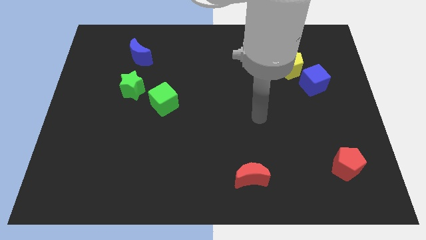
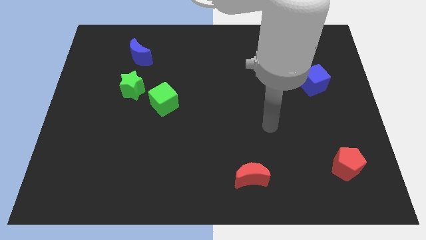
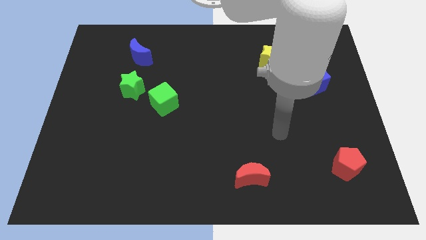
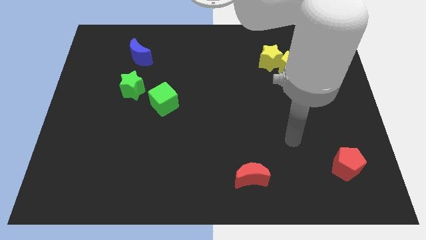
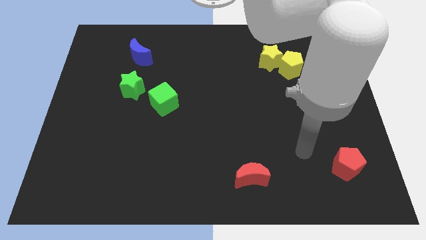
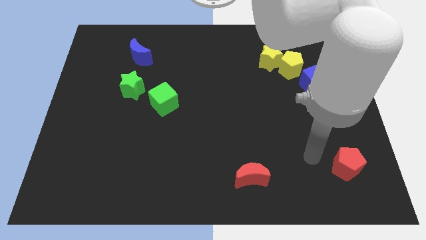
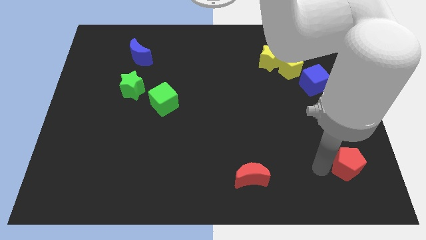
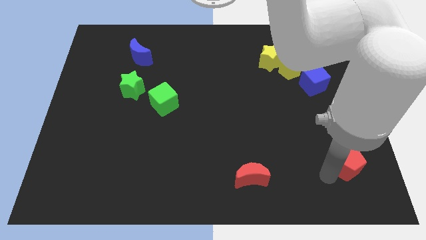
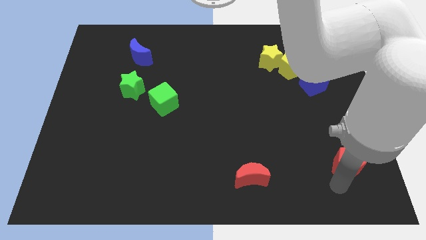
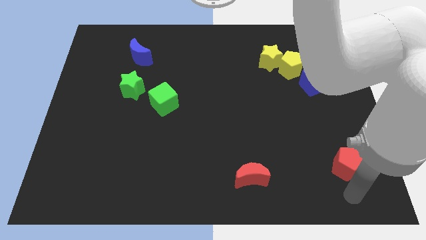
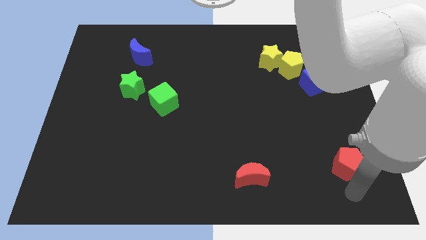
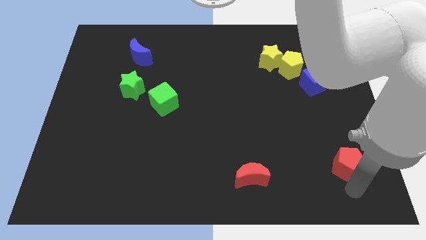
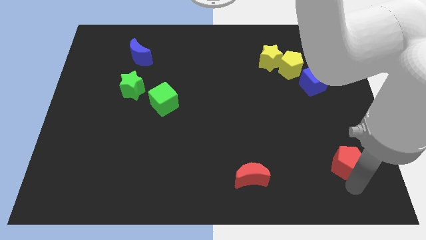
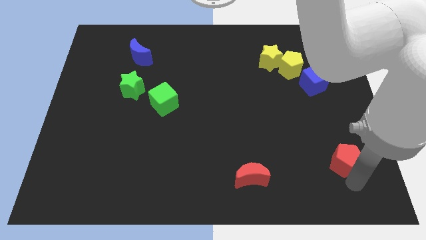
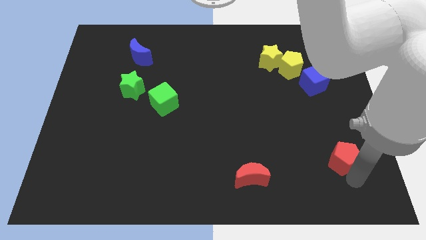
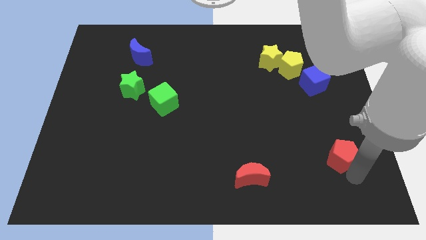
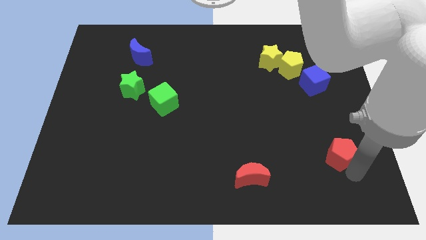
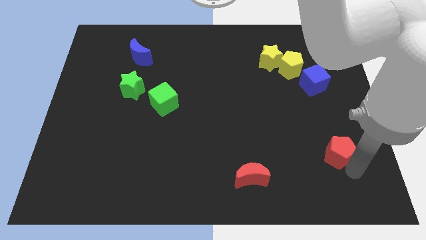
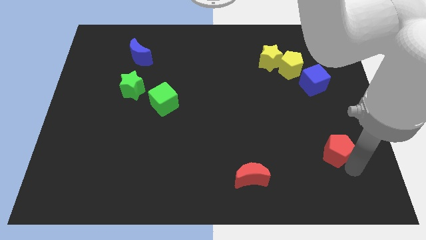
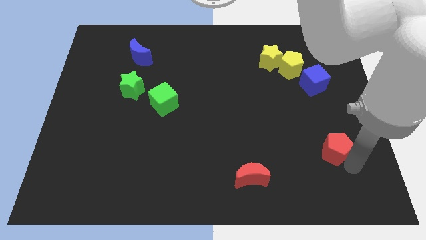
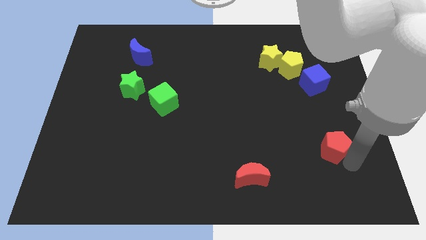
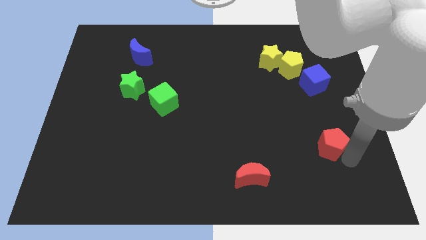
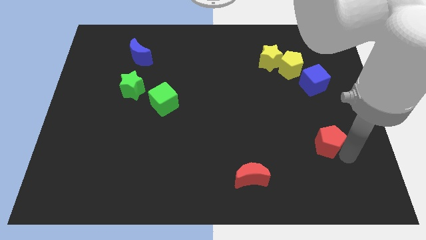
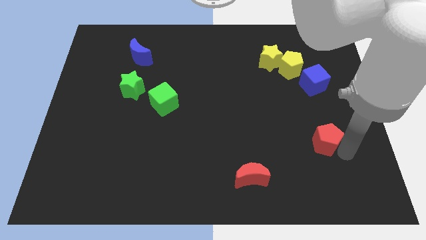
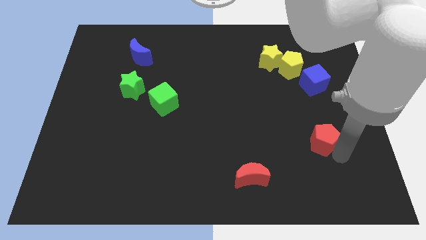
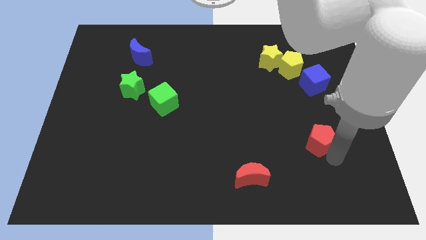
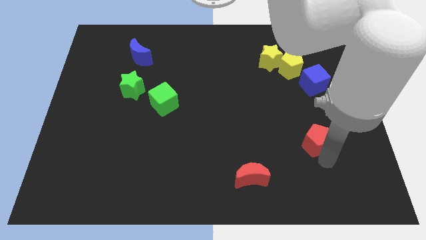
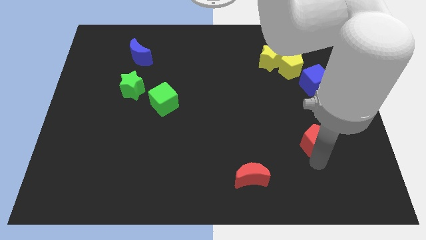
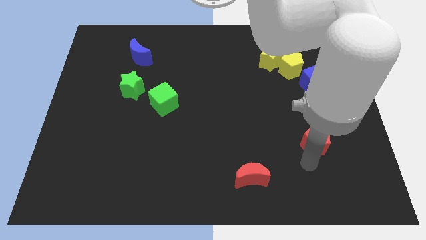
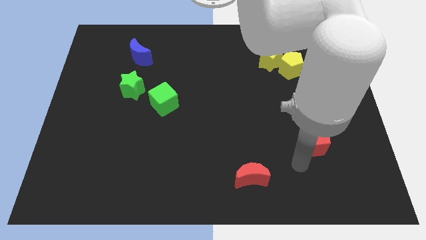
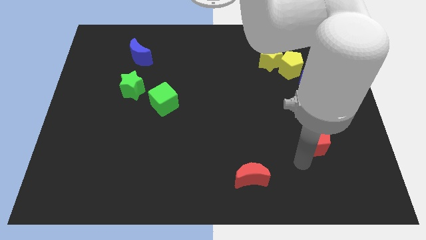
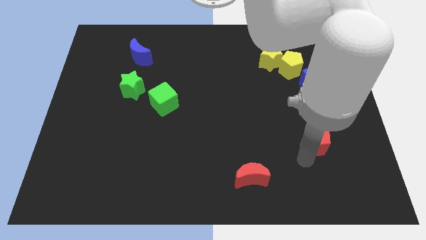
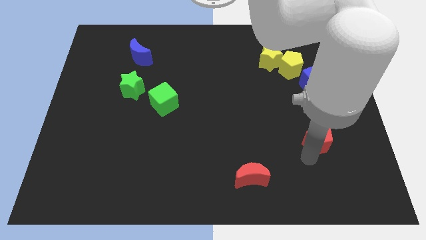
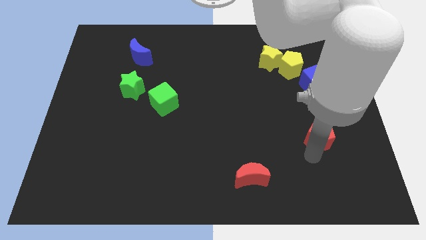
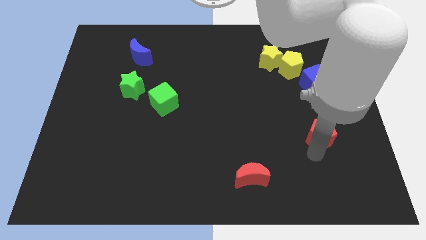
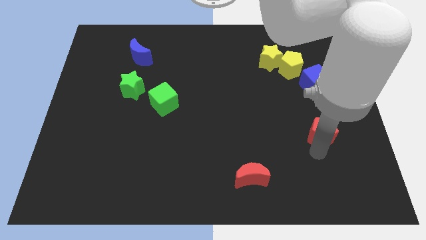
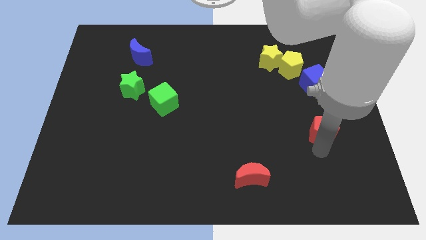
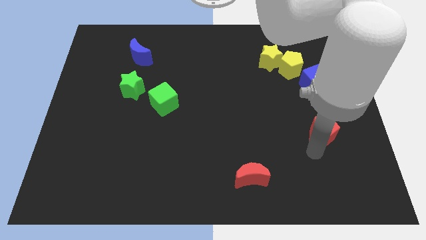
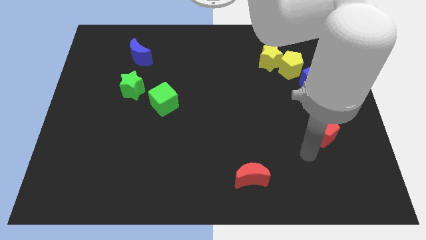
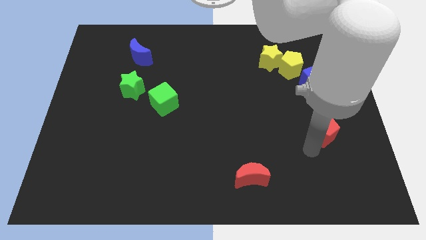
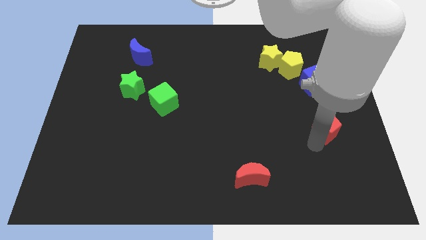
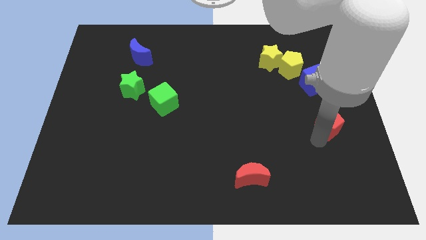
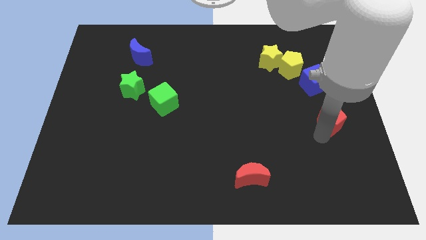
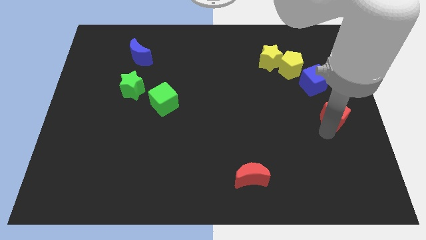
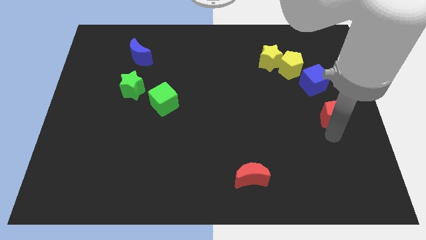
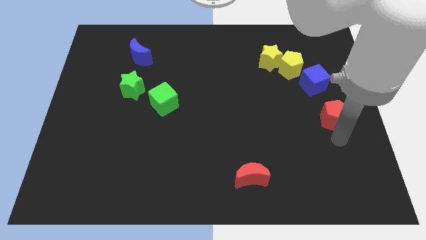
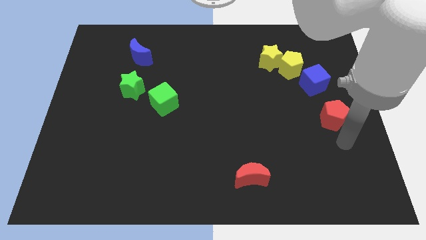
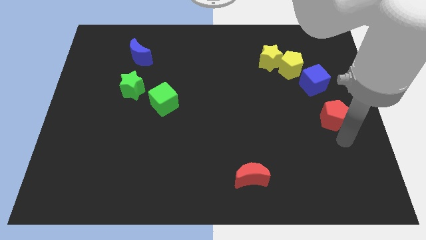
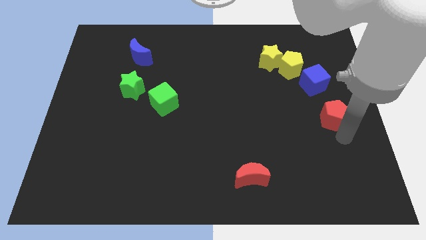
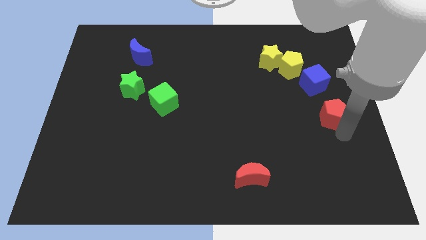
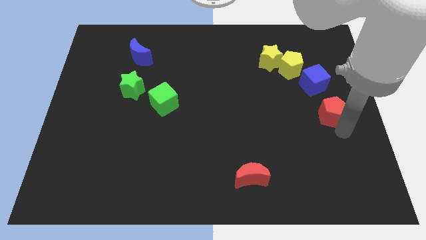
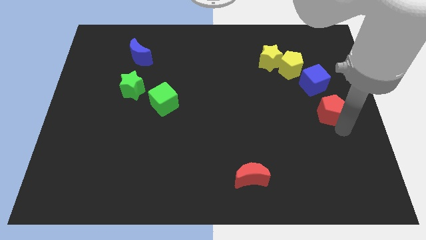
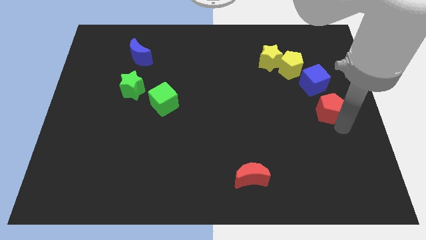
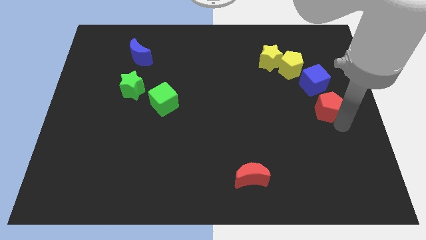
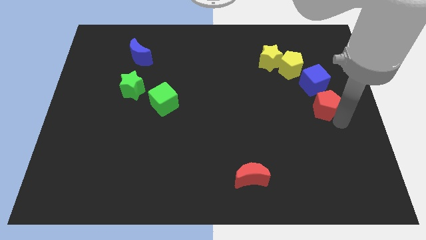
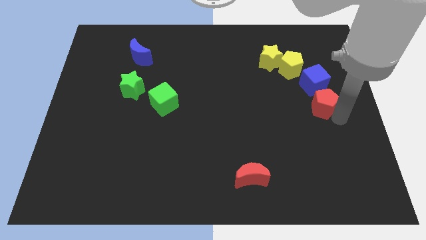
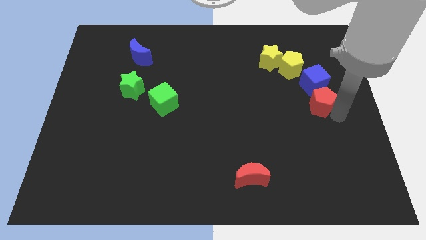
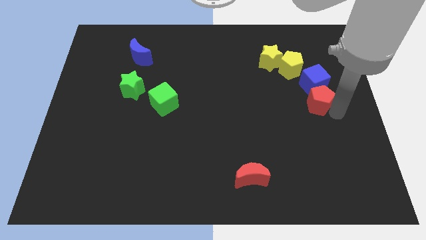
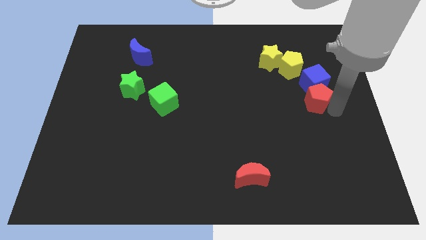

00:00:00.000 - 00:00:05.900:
slide the red pentagon towards the blue cube

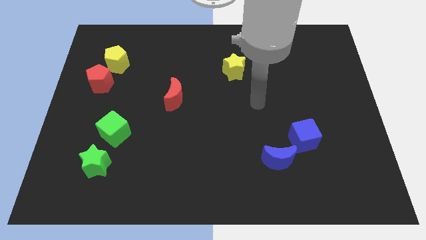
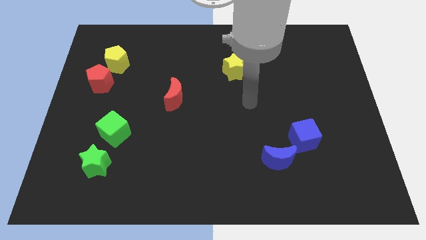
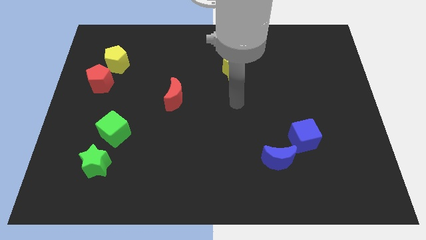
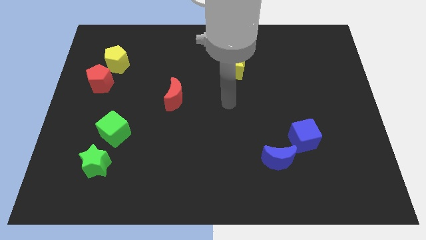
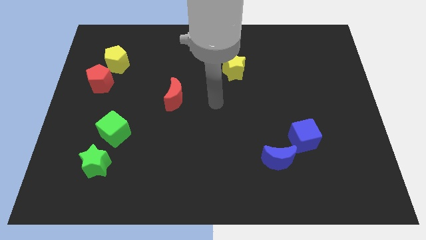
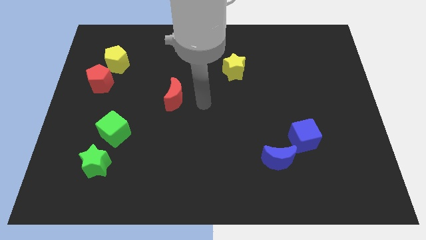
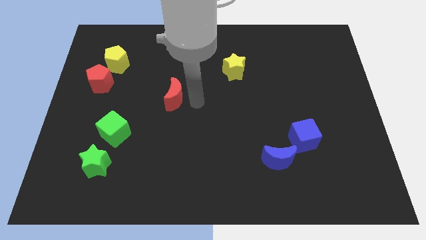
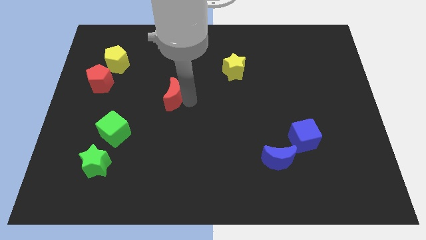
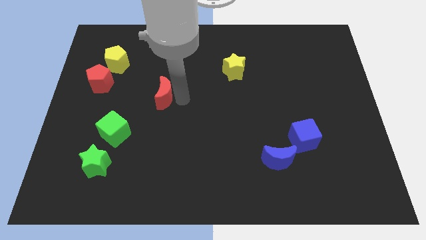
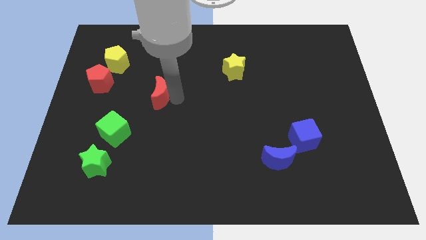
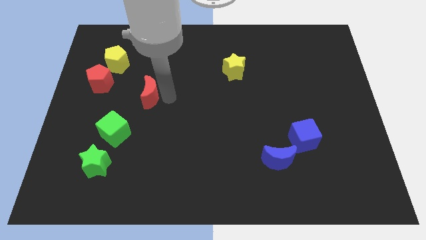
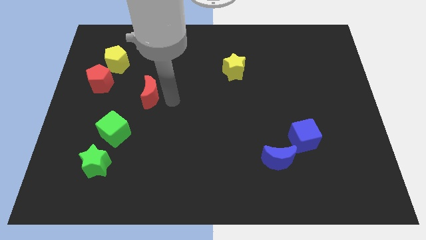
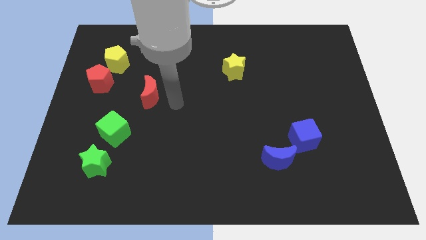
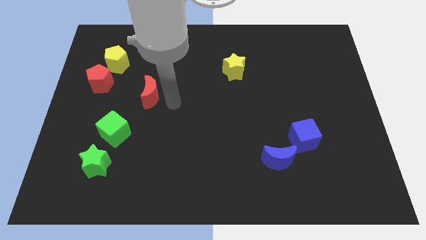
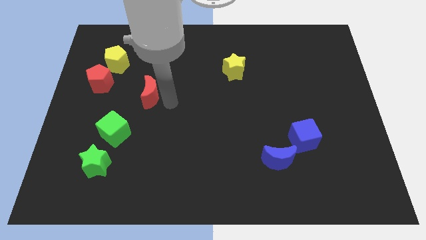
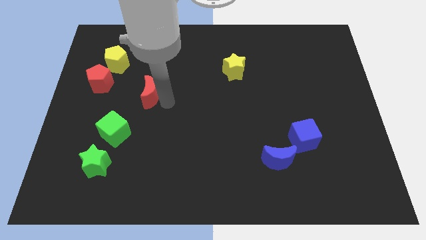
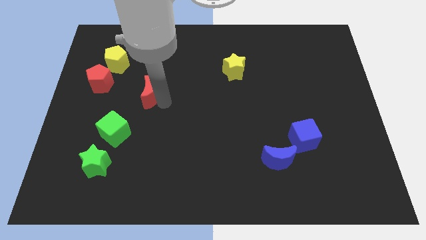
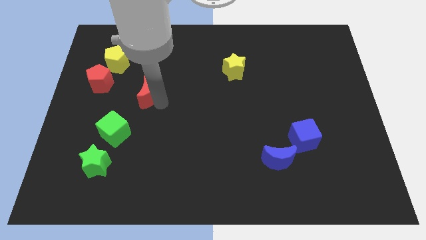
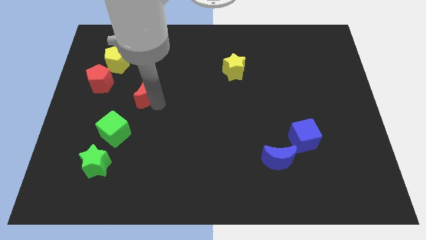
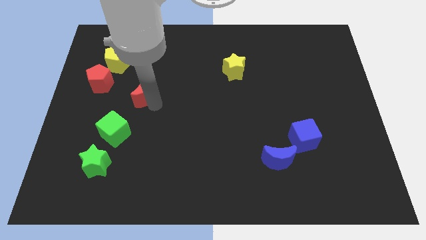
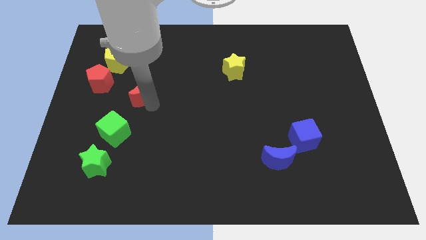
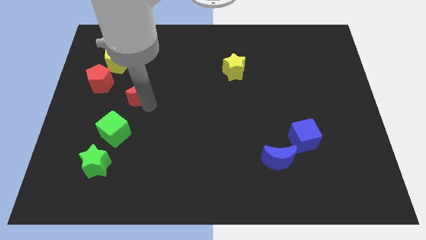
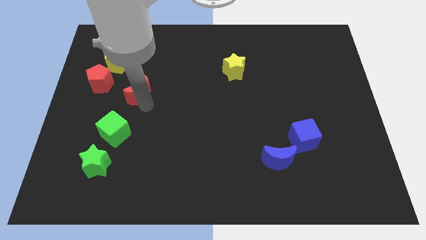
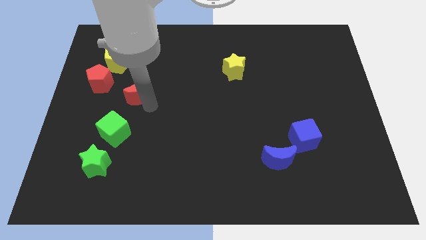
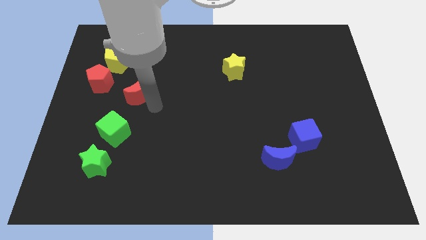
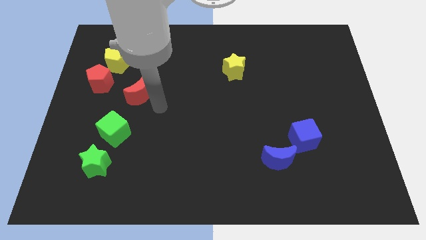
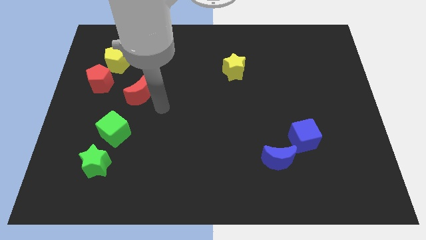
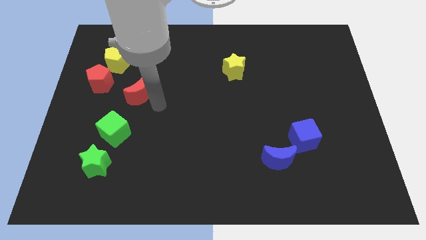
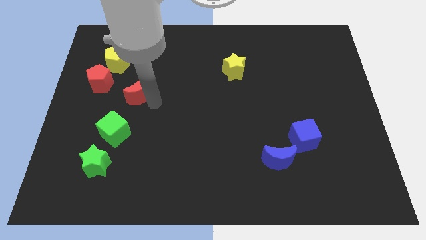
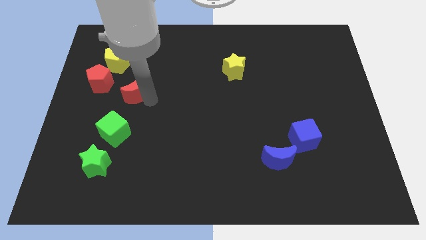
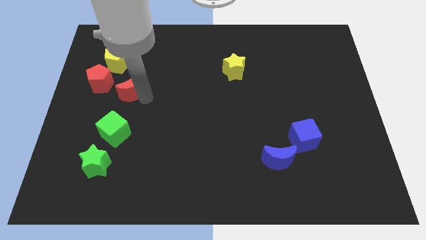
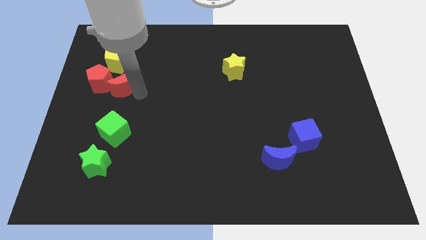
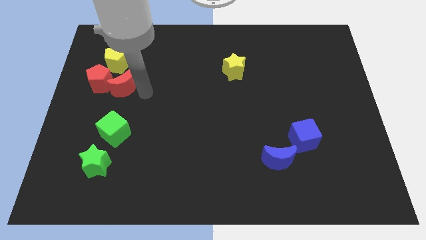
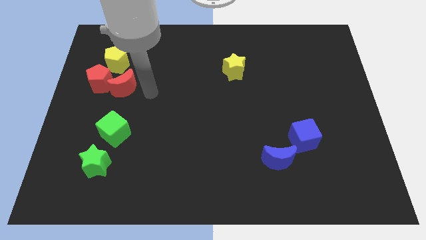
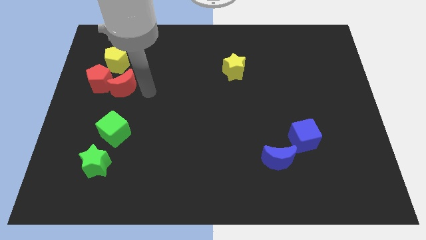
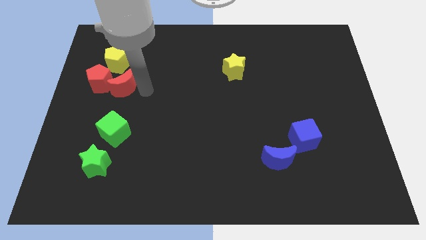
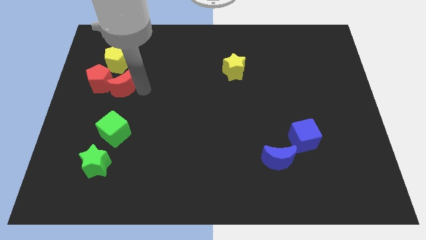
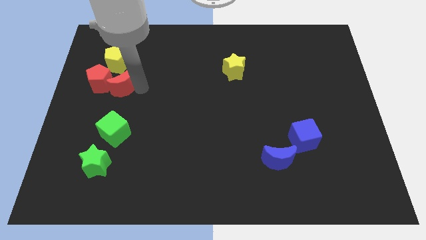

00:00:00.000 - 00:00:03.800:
slide the red moon to the red pentagon
